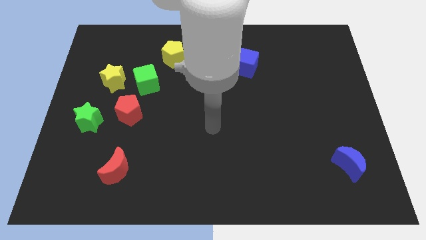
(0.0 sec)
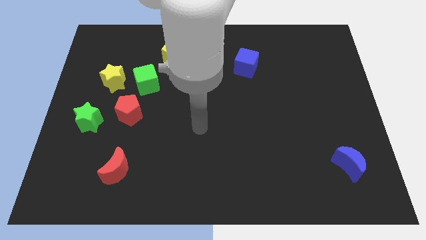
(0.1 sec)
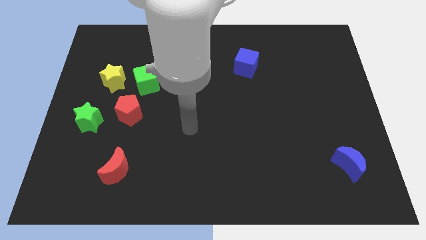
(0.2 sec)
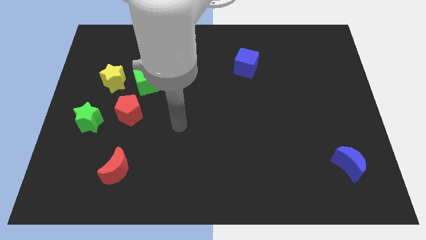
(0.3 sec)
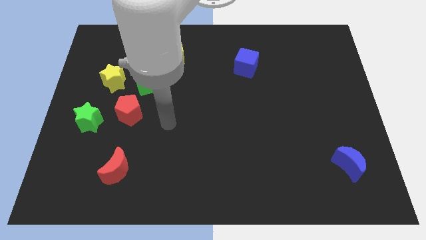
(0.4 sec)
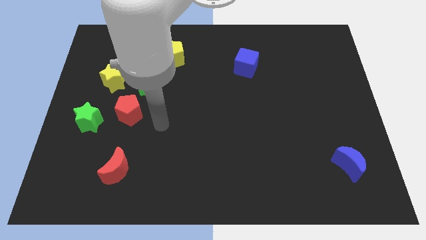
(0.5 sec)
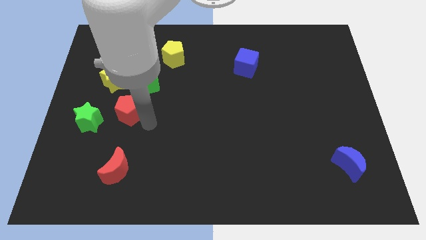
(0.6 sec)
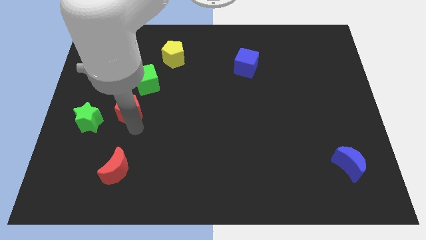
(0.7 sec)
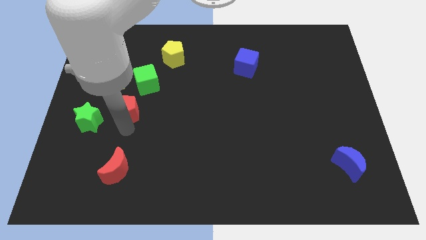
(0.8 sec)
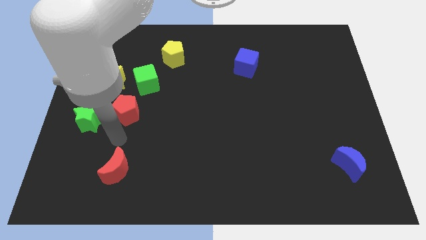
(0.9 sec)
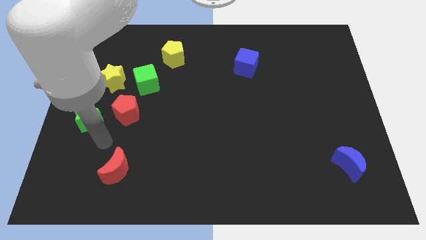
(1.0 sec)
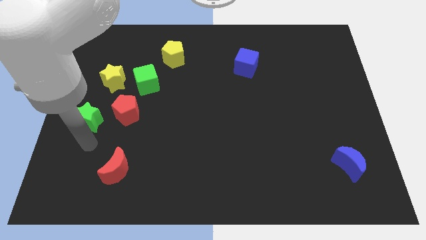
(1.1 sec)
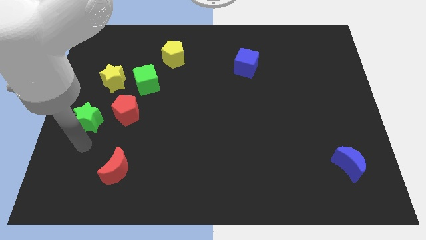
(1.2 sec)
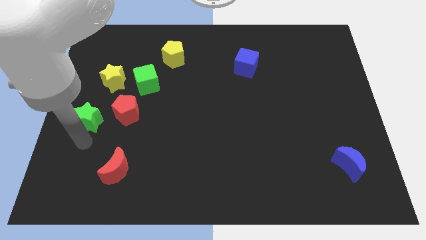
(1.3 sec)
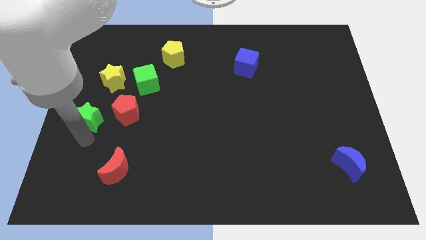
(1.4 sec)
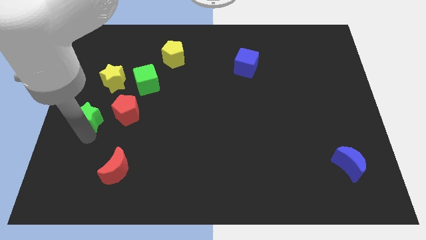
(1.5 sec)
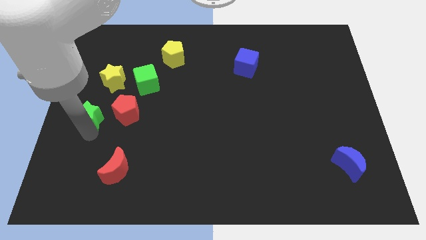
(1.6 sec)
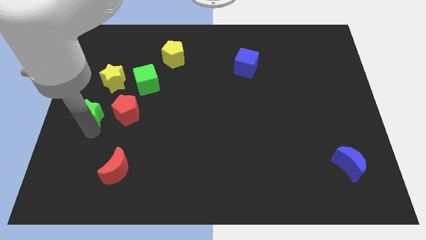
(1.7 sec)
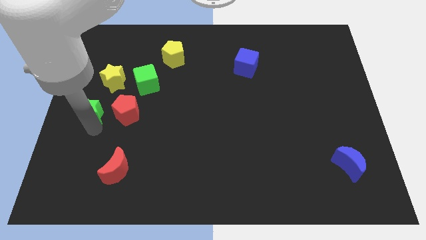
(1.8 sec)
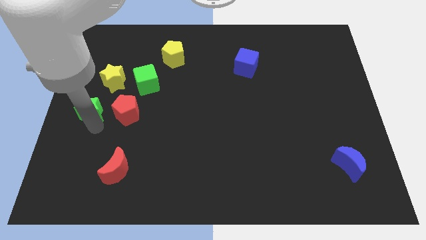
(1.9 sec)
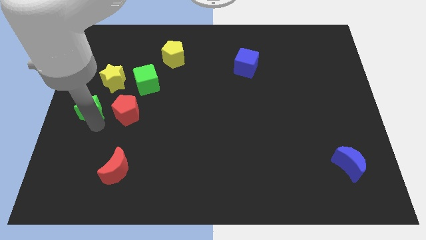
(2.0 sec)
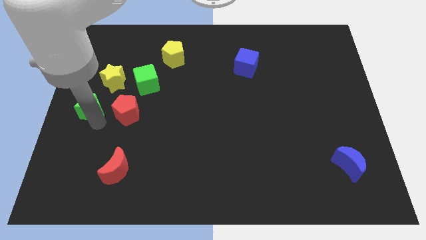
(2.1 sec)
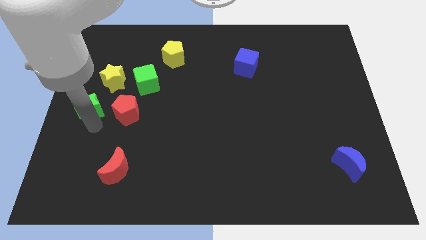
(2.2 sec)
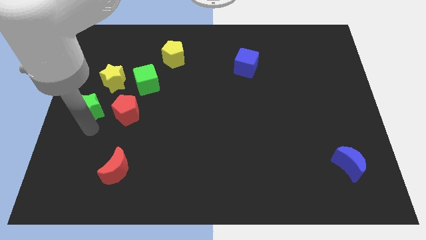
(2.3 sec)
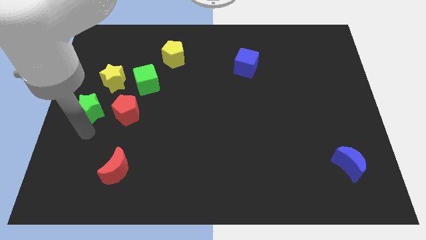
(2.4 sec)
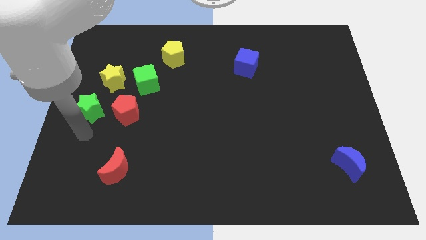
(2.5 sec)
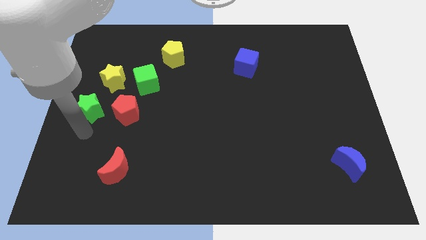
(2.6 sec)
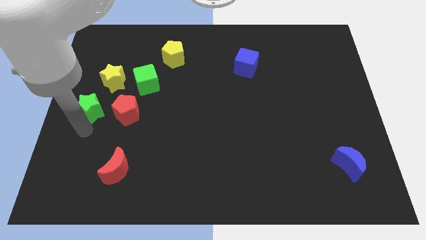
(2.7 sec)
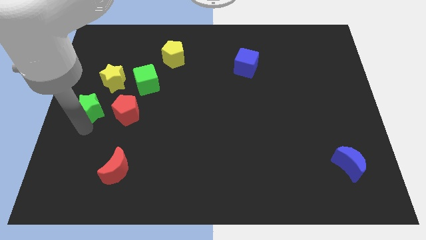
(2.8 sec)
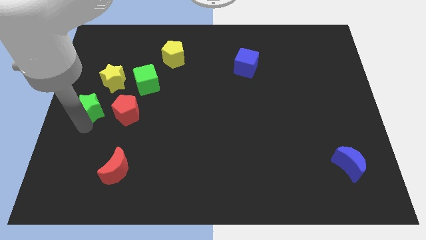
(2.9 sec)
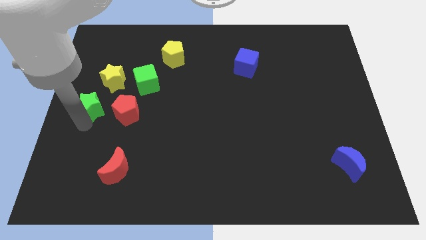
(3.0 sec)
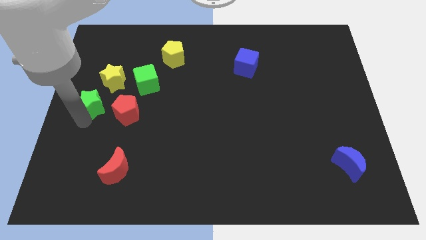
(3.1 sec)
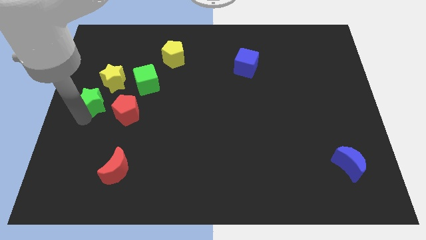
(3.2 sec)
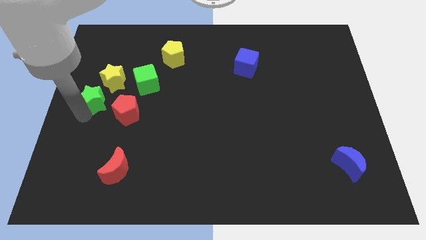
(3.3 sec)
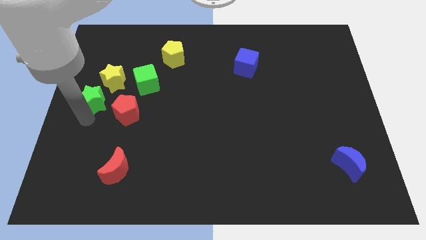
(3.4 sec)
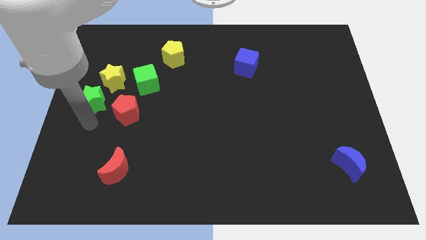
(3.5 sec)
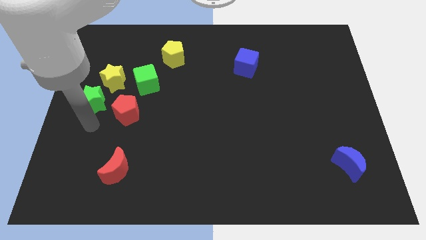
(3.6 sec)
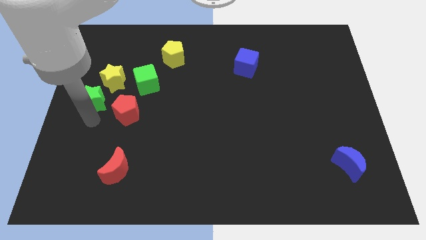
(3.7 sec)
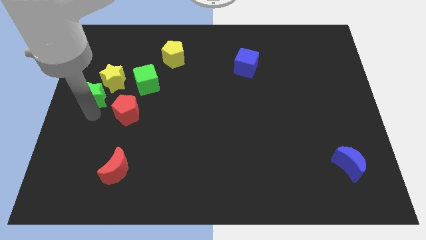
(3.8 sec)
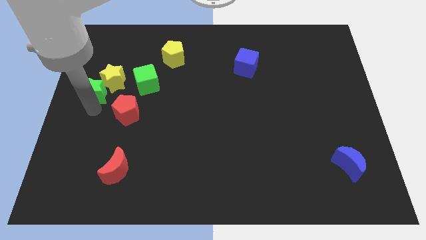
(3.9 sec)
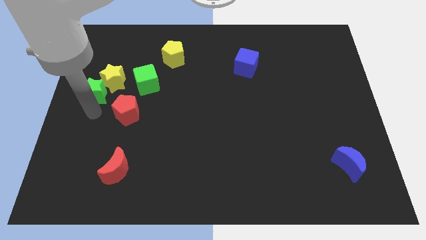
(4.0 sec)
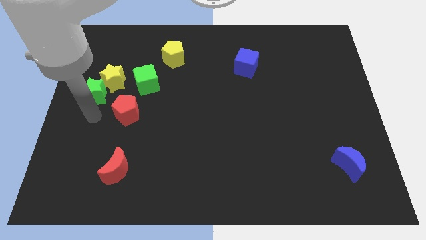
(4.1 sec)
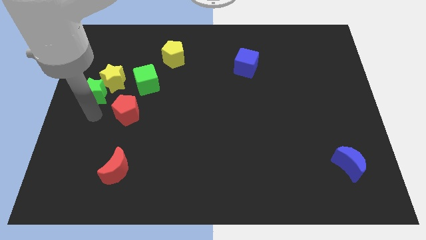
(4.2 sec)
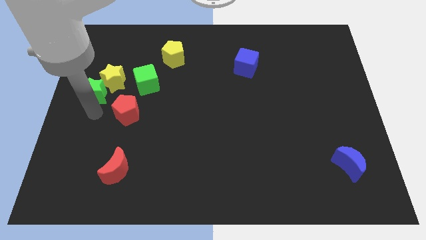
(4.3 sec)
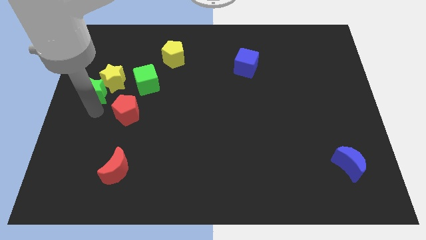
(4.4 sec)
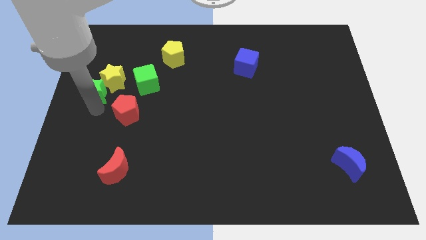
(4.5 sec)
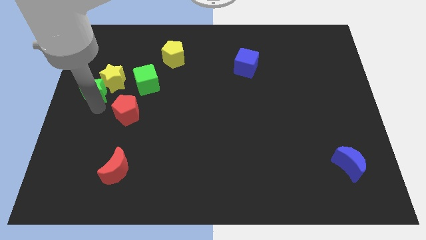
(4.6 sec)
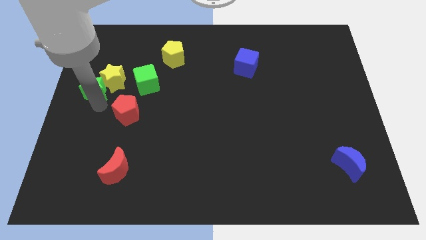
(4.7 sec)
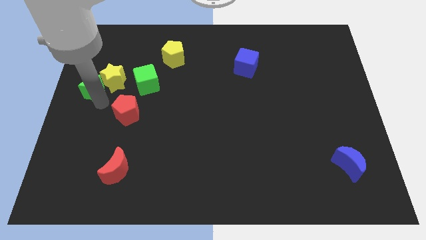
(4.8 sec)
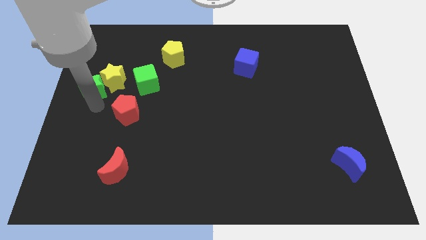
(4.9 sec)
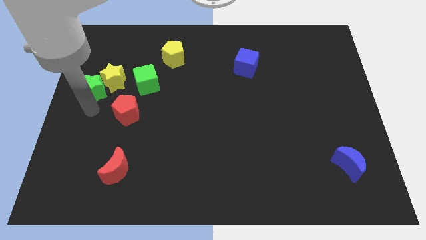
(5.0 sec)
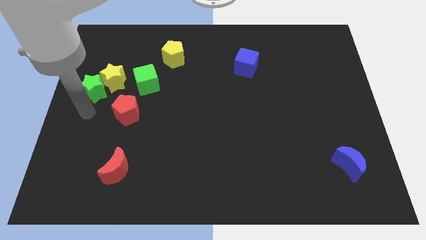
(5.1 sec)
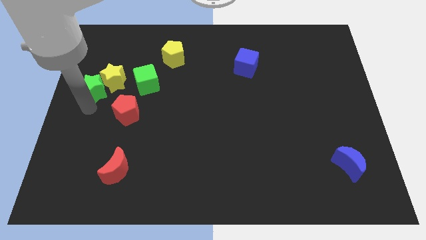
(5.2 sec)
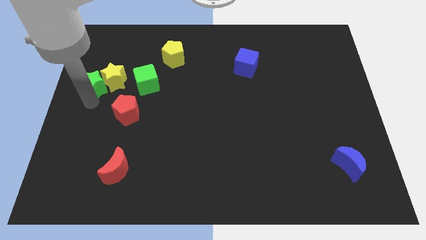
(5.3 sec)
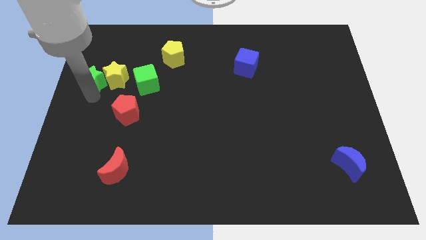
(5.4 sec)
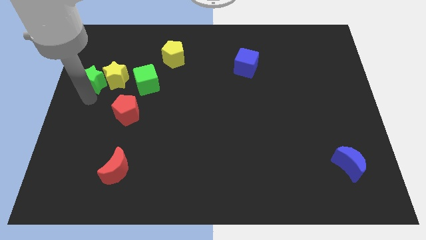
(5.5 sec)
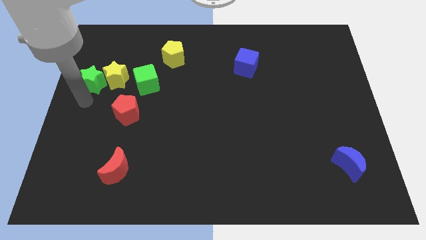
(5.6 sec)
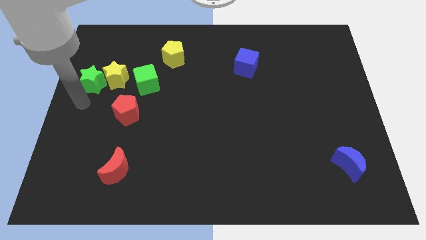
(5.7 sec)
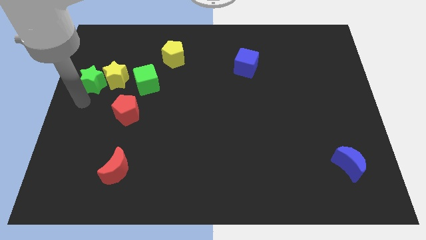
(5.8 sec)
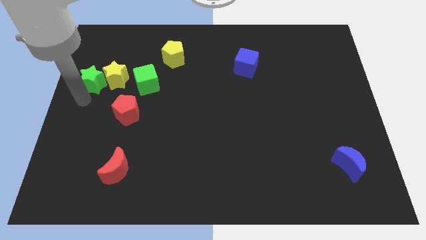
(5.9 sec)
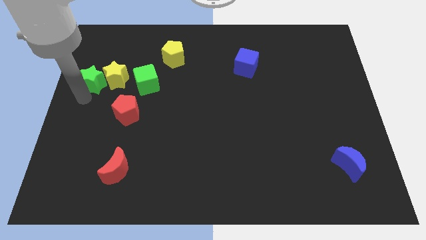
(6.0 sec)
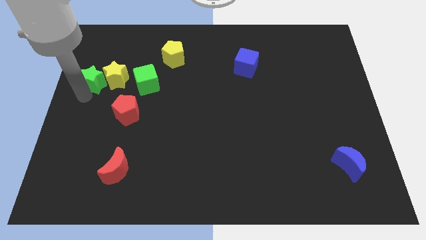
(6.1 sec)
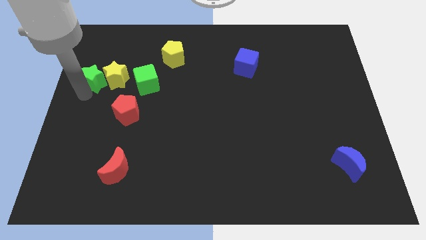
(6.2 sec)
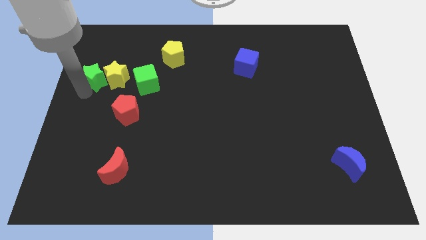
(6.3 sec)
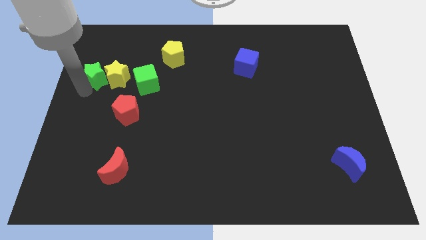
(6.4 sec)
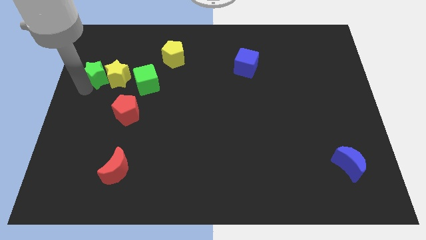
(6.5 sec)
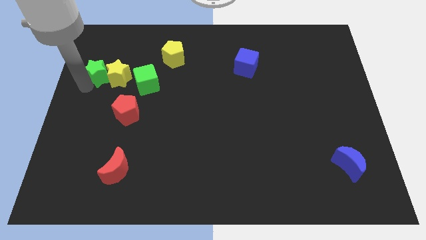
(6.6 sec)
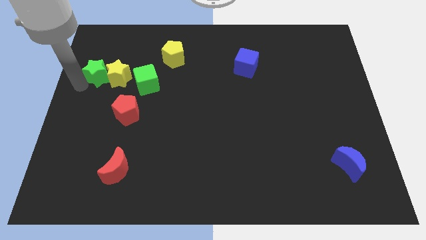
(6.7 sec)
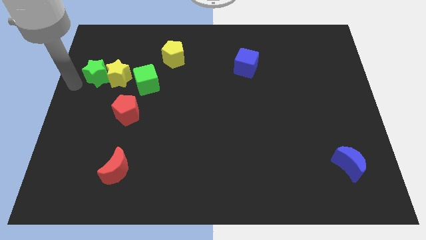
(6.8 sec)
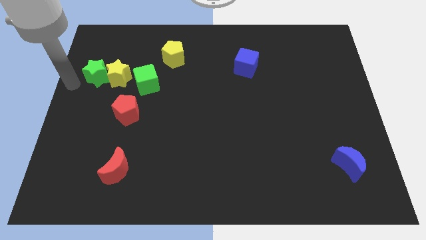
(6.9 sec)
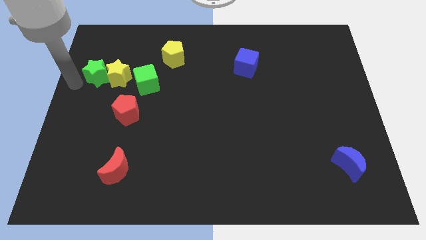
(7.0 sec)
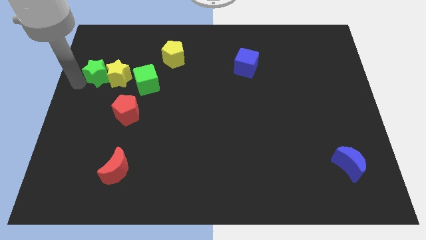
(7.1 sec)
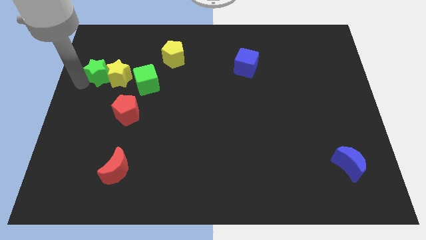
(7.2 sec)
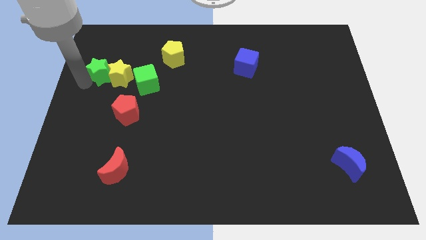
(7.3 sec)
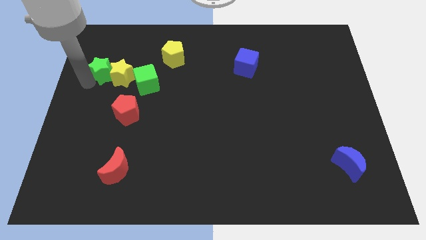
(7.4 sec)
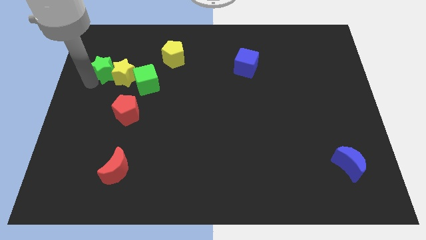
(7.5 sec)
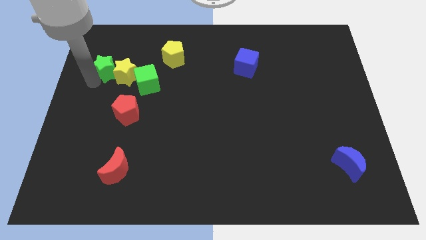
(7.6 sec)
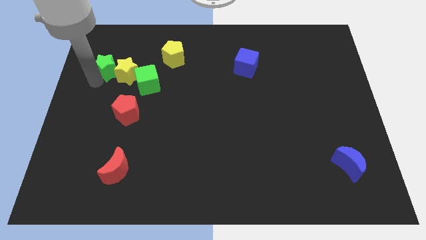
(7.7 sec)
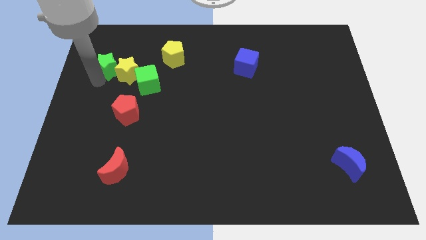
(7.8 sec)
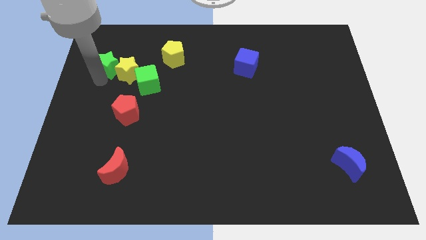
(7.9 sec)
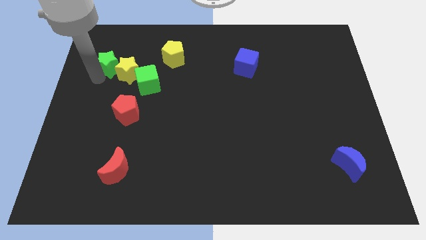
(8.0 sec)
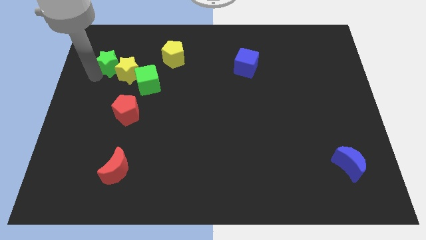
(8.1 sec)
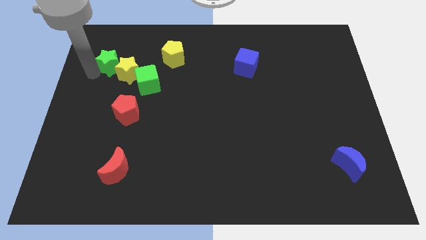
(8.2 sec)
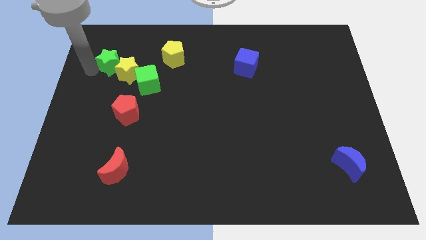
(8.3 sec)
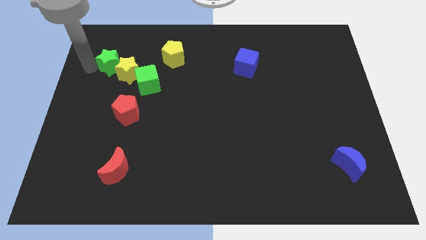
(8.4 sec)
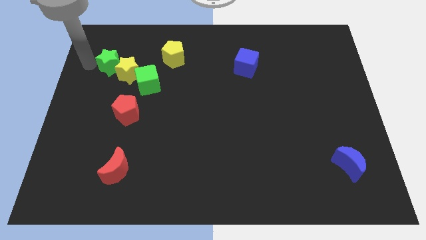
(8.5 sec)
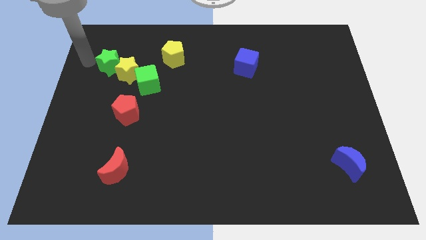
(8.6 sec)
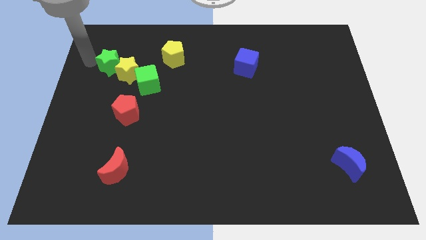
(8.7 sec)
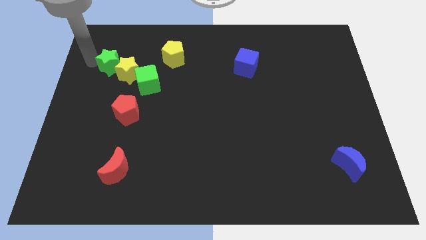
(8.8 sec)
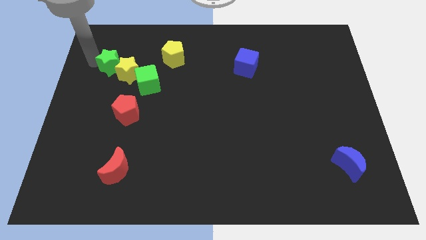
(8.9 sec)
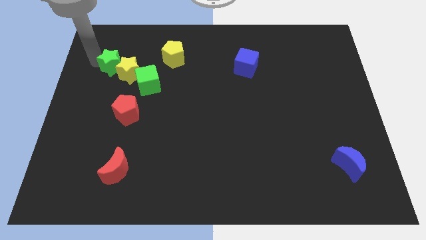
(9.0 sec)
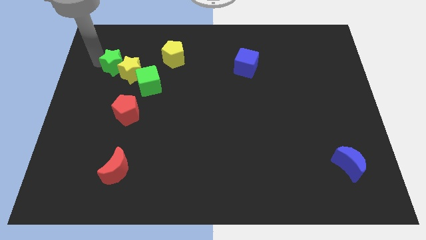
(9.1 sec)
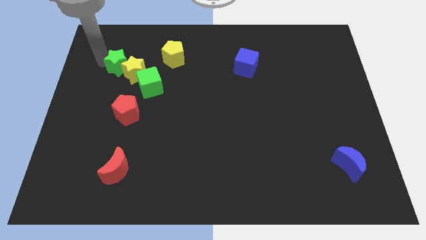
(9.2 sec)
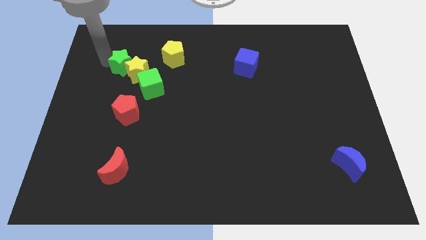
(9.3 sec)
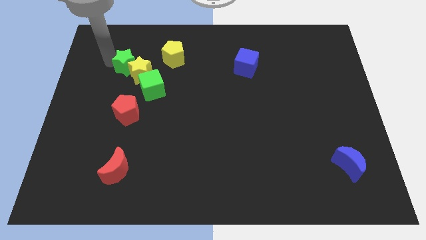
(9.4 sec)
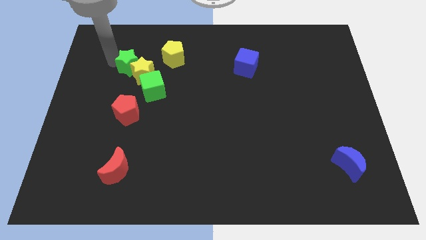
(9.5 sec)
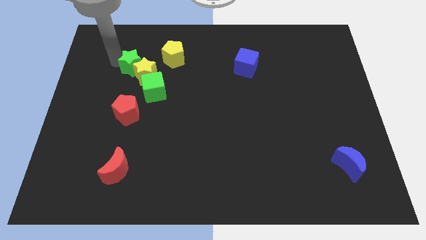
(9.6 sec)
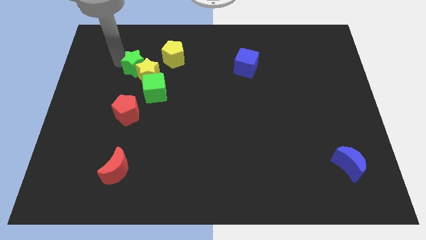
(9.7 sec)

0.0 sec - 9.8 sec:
slide the green star to the bottom left side of the yellow pentagon
